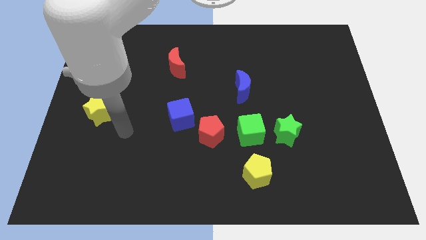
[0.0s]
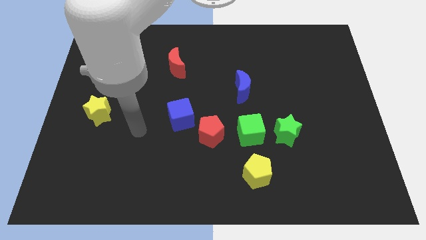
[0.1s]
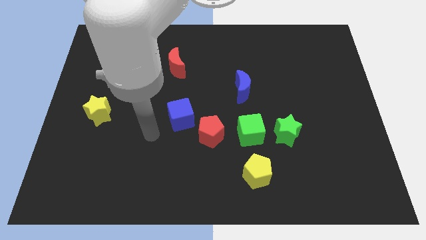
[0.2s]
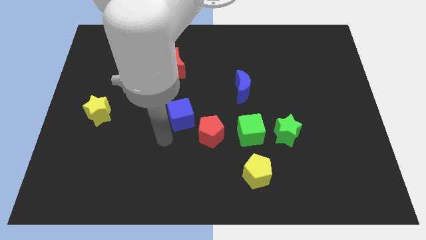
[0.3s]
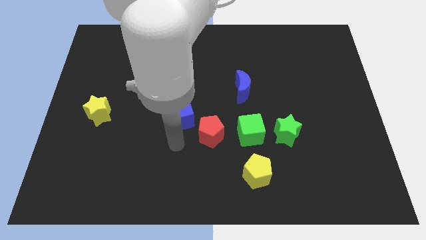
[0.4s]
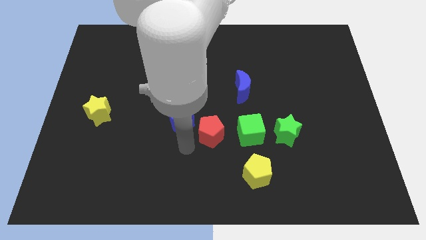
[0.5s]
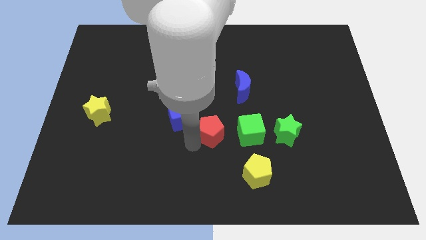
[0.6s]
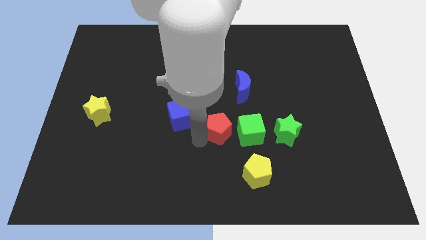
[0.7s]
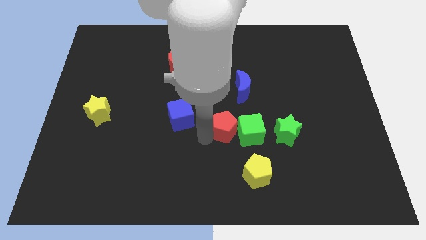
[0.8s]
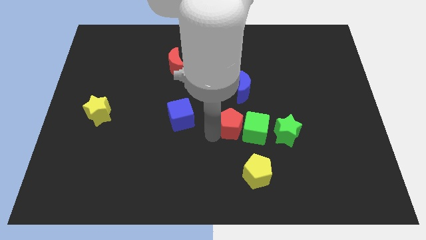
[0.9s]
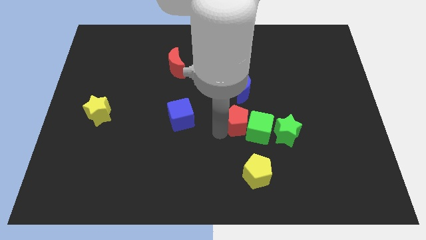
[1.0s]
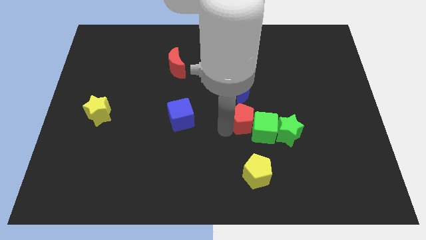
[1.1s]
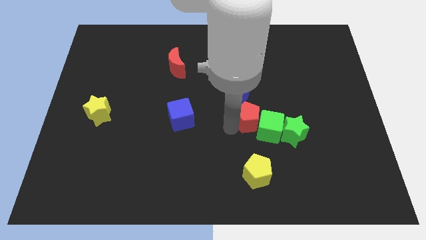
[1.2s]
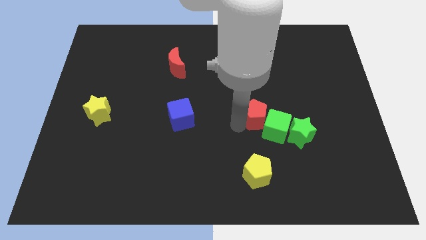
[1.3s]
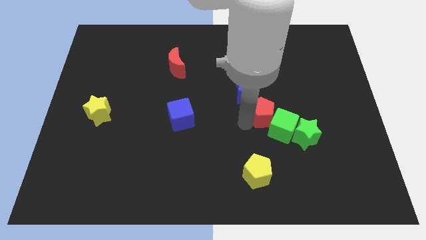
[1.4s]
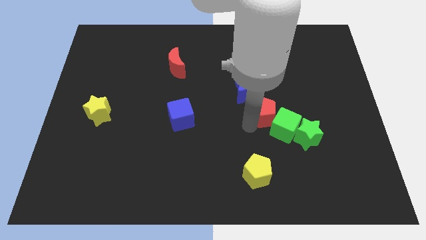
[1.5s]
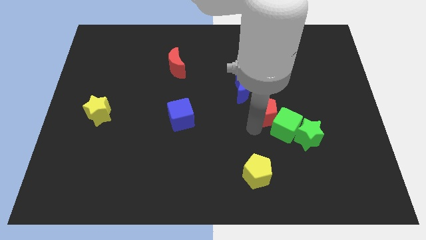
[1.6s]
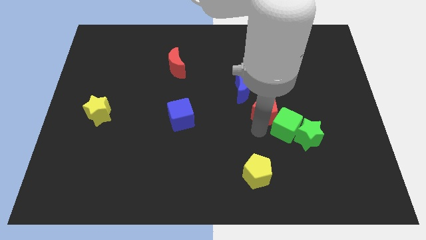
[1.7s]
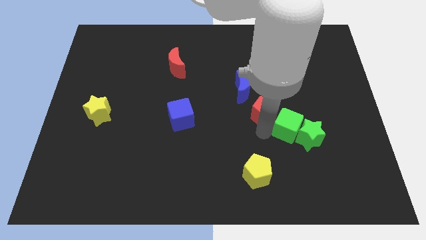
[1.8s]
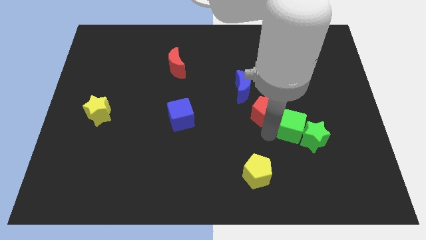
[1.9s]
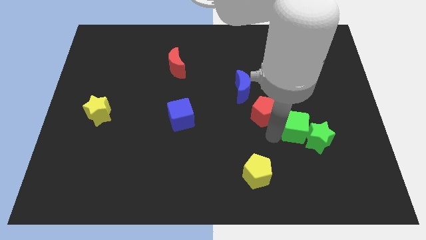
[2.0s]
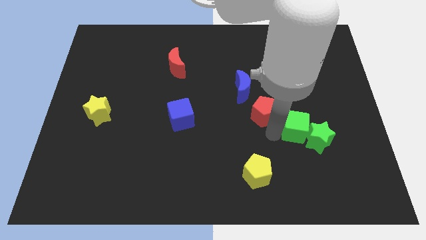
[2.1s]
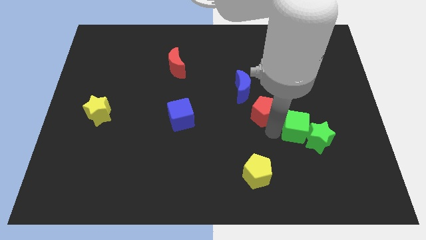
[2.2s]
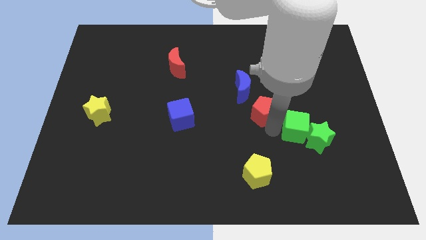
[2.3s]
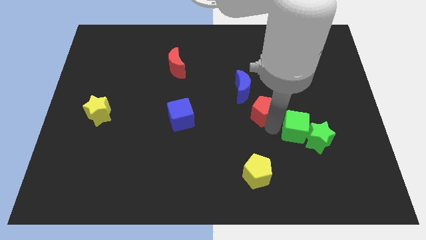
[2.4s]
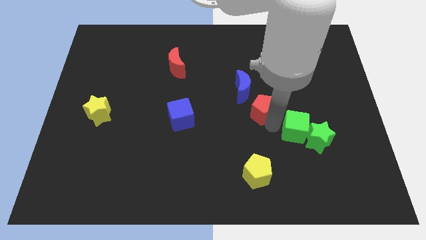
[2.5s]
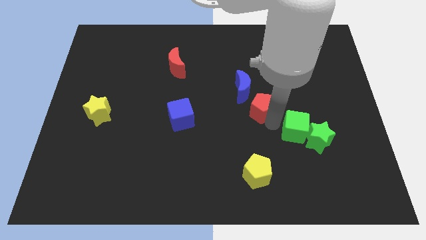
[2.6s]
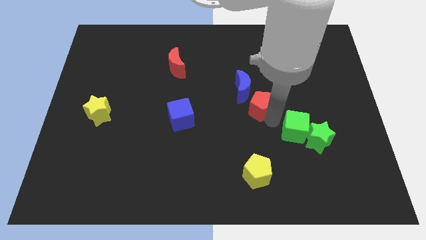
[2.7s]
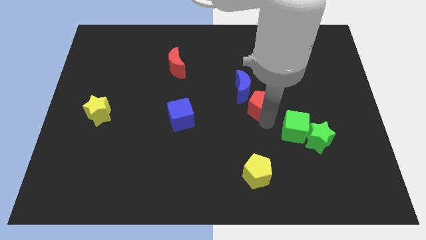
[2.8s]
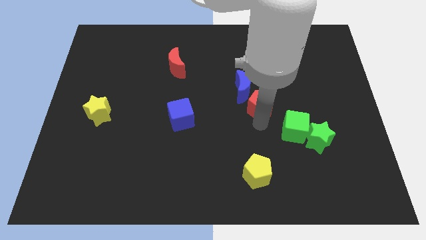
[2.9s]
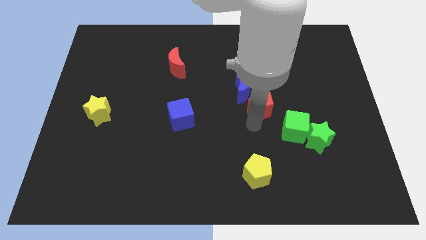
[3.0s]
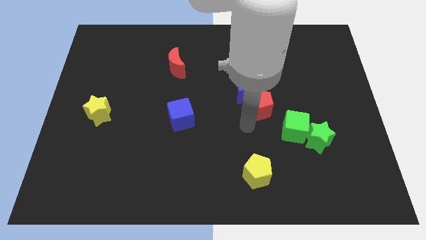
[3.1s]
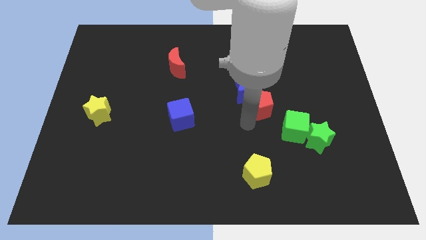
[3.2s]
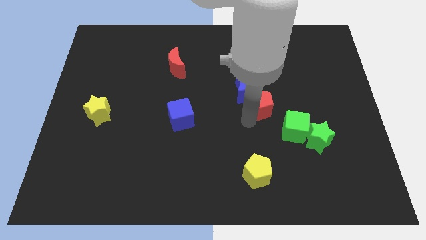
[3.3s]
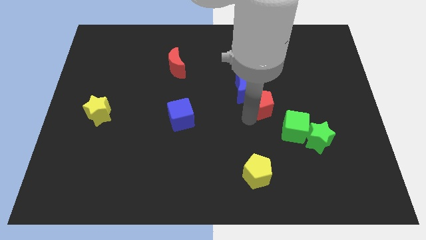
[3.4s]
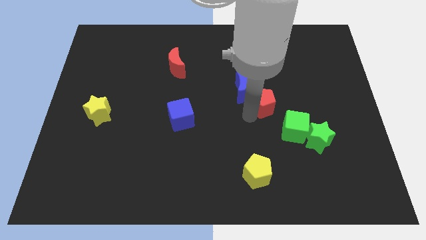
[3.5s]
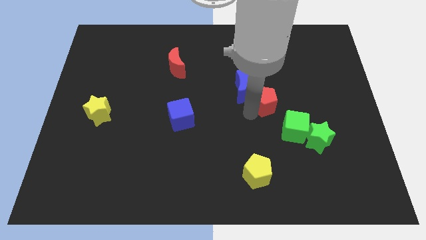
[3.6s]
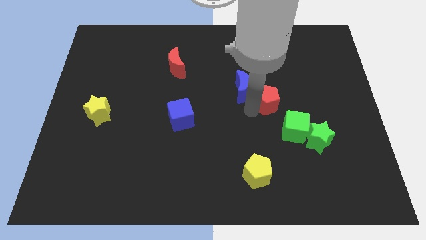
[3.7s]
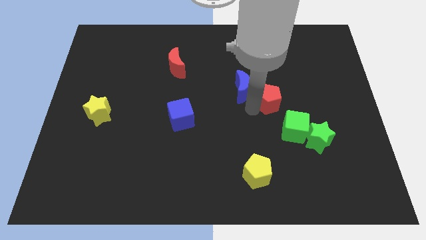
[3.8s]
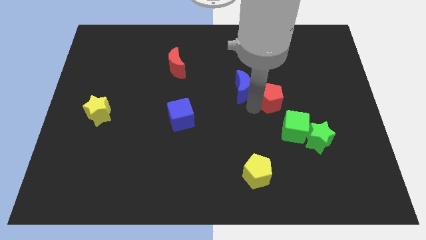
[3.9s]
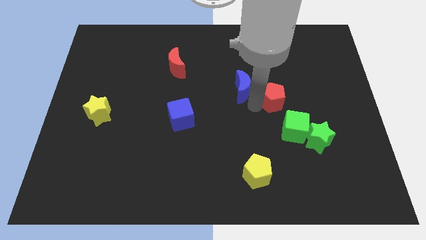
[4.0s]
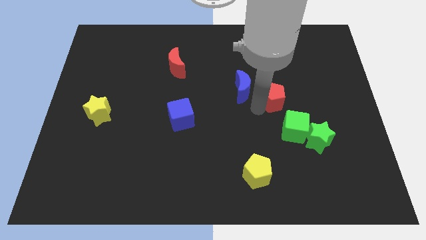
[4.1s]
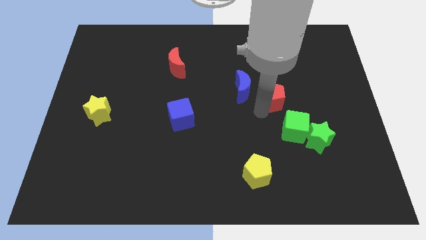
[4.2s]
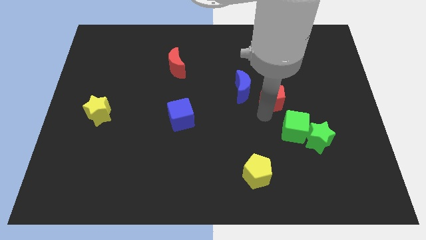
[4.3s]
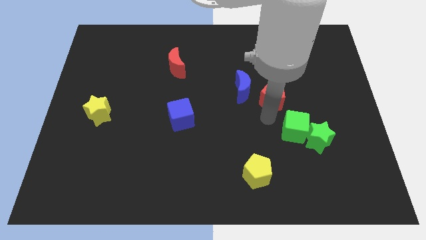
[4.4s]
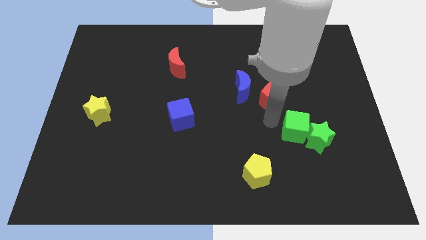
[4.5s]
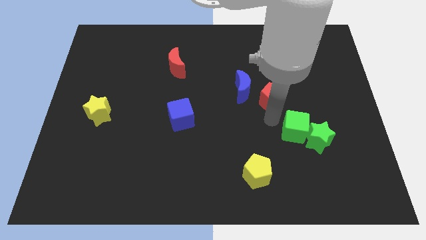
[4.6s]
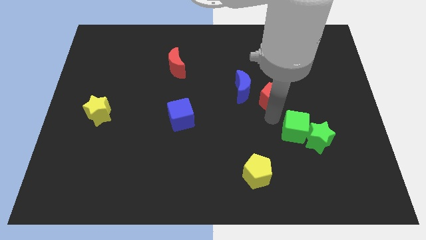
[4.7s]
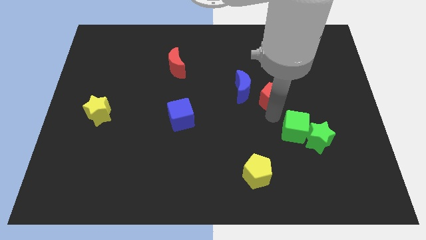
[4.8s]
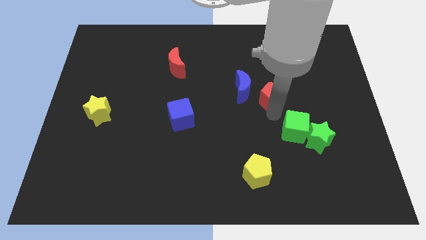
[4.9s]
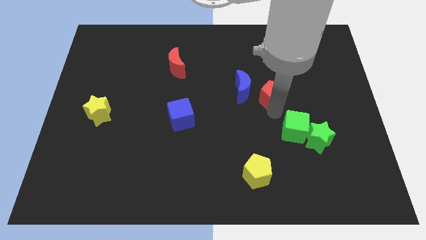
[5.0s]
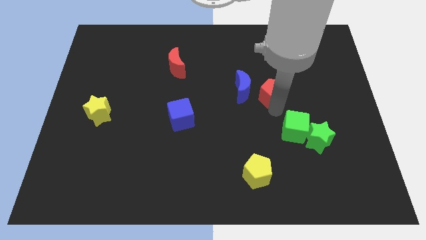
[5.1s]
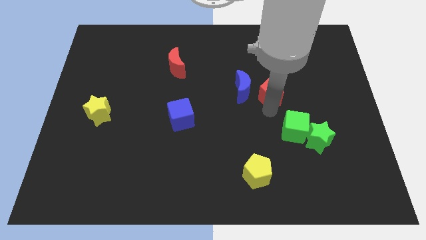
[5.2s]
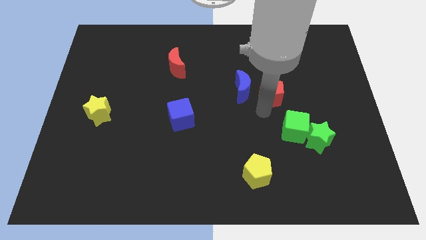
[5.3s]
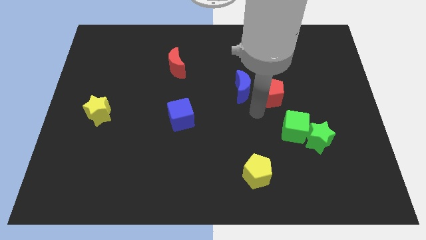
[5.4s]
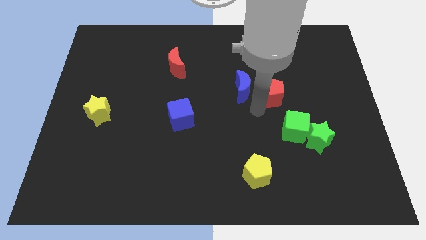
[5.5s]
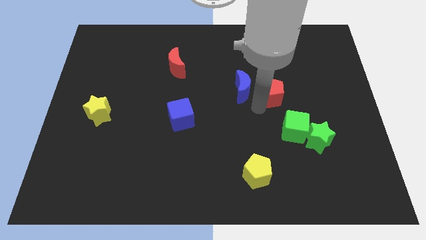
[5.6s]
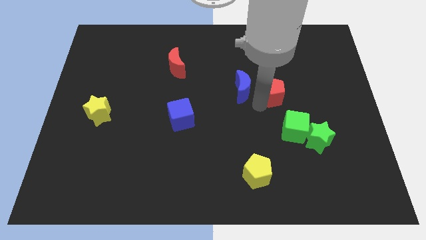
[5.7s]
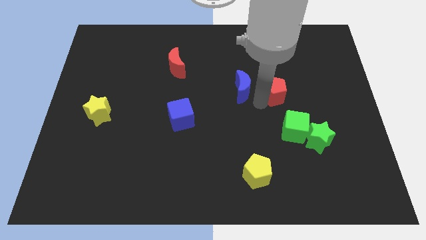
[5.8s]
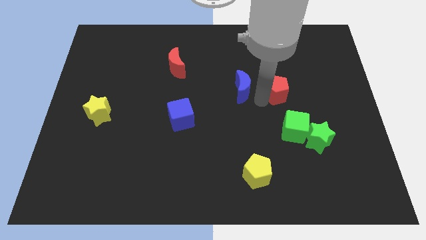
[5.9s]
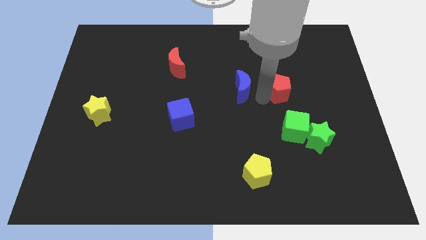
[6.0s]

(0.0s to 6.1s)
slide the red pentagon upwards and then right

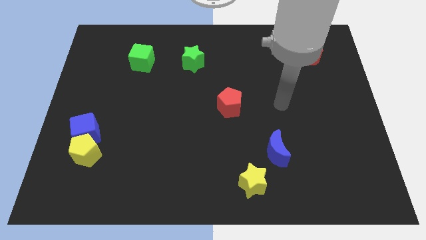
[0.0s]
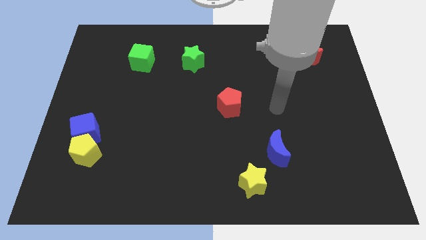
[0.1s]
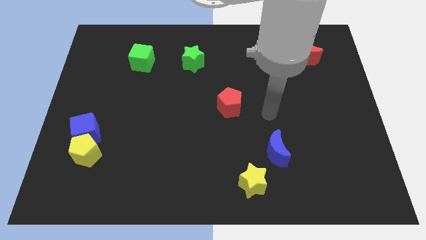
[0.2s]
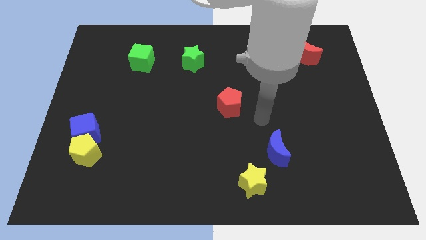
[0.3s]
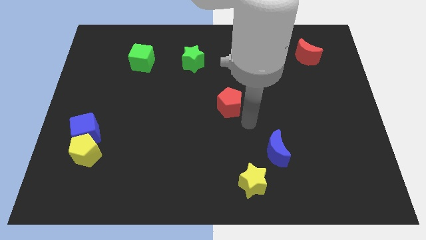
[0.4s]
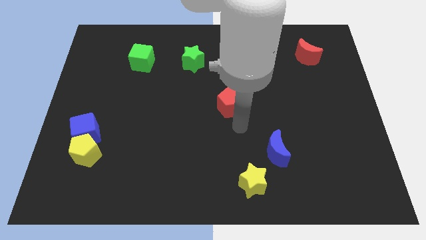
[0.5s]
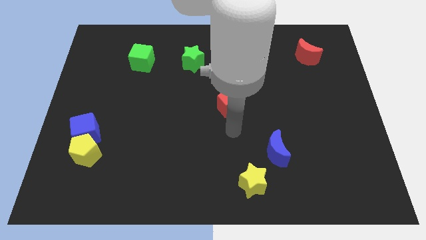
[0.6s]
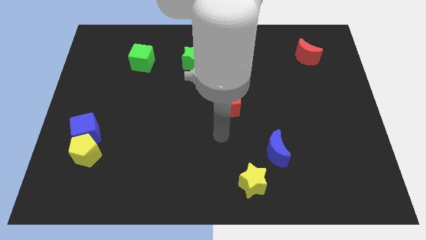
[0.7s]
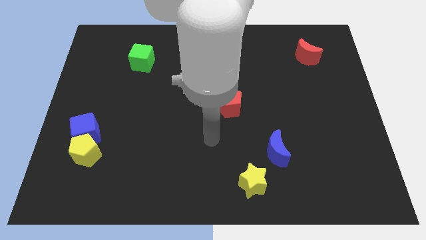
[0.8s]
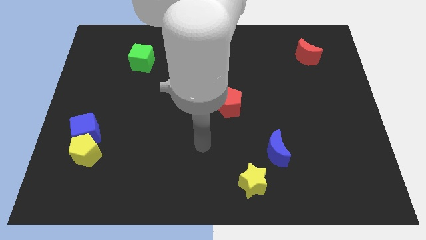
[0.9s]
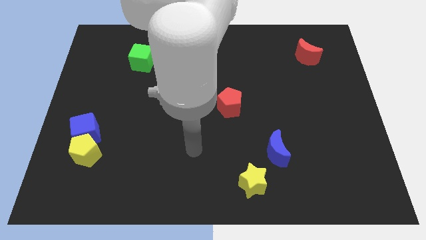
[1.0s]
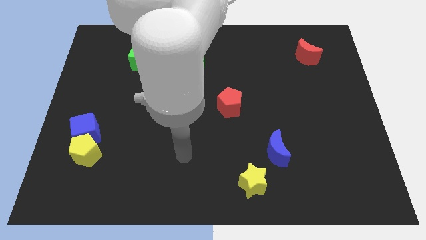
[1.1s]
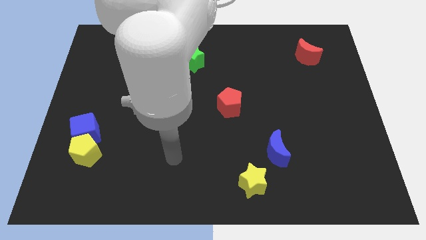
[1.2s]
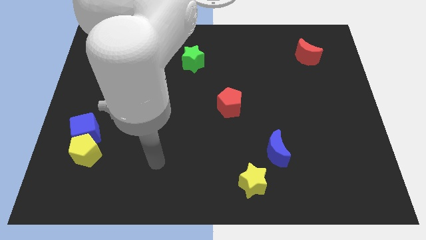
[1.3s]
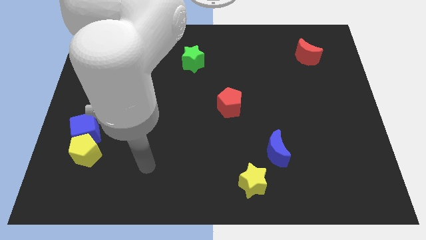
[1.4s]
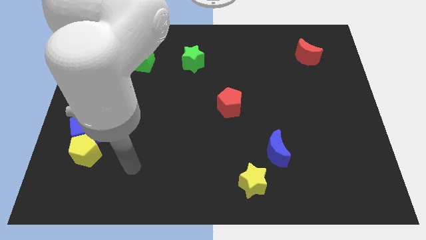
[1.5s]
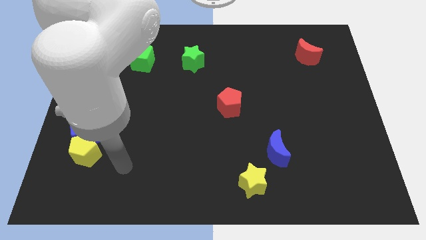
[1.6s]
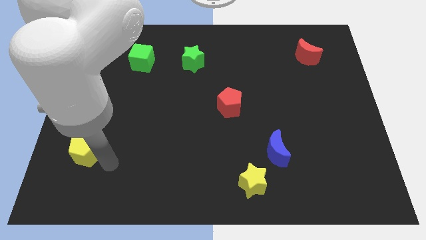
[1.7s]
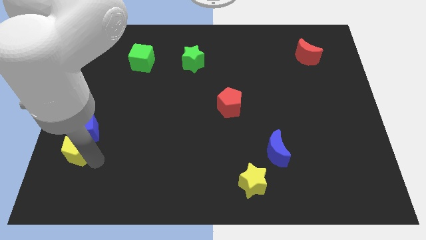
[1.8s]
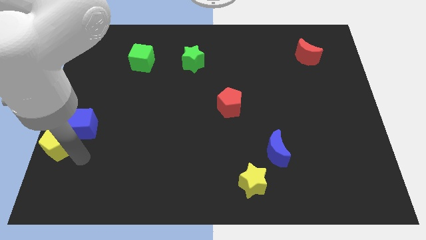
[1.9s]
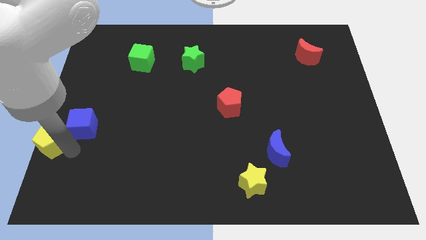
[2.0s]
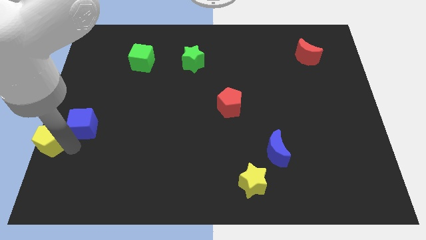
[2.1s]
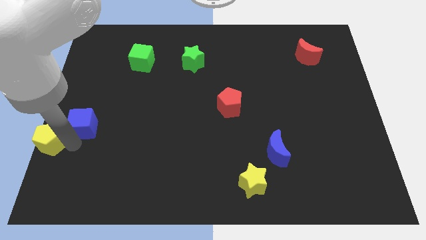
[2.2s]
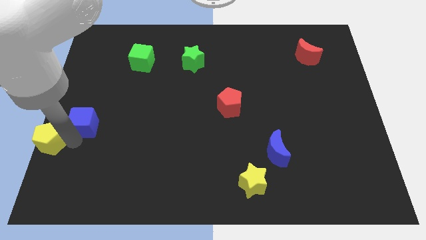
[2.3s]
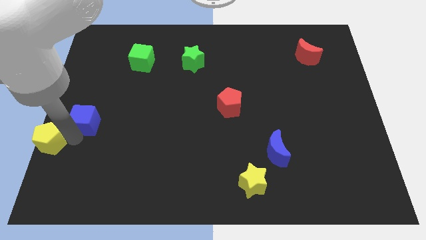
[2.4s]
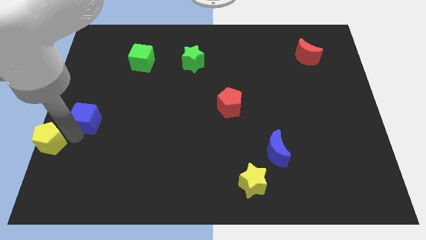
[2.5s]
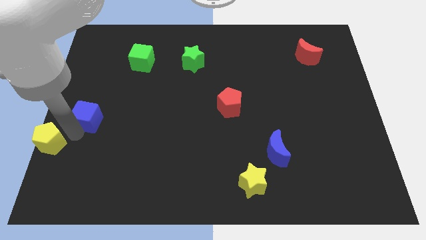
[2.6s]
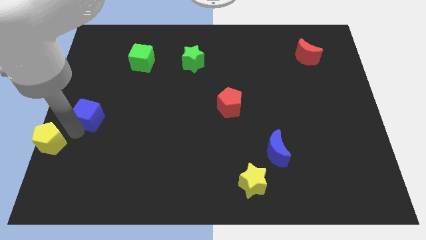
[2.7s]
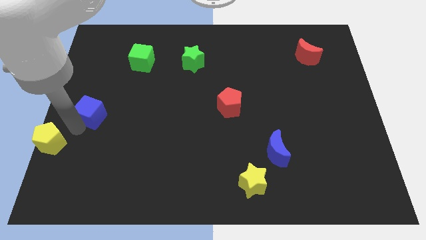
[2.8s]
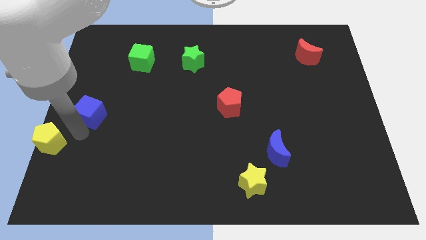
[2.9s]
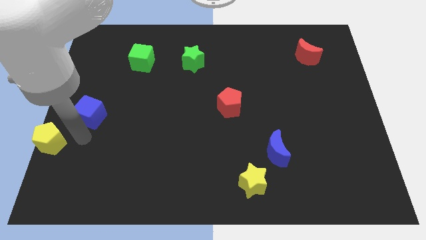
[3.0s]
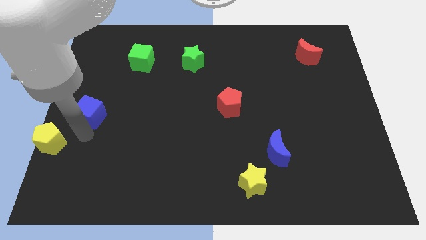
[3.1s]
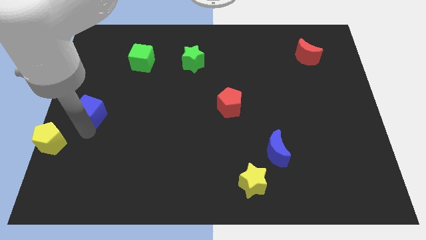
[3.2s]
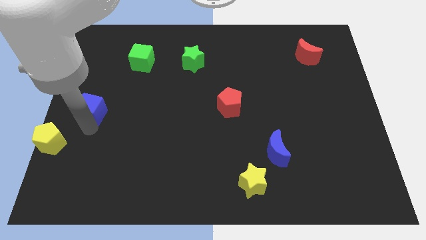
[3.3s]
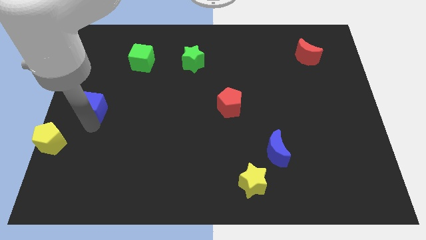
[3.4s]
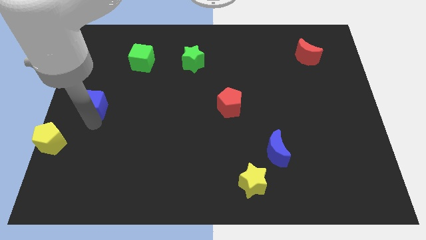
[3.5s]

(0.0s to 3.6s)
slightly slide the blue cube up
